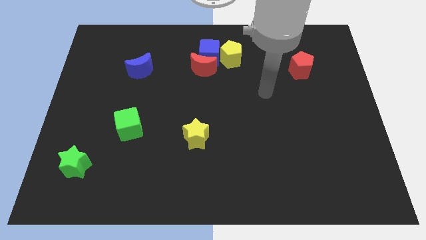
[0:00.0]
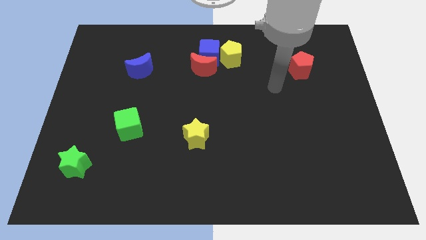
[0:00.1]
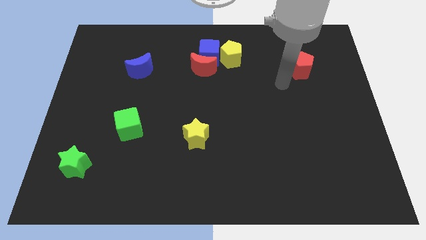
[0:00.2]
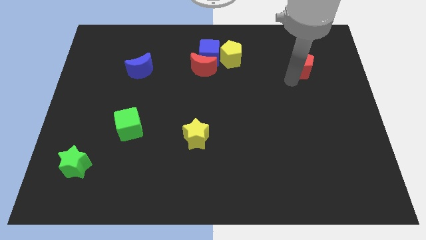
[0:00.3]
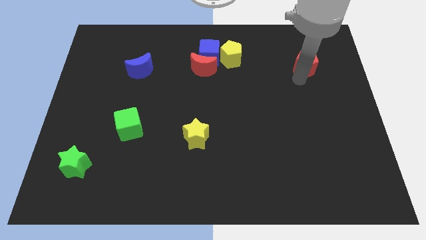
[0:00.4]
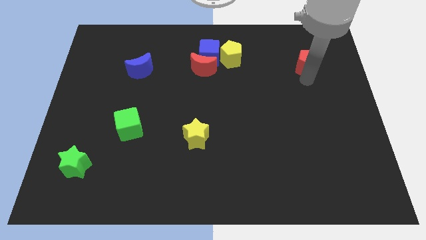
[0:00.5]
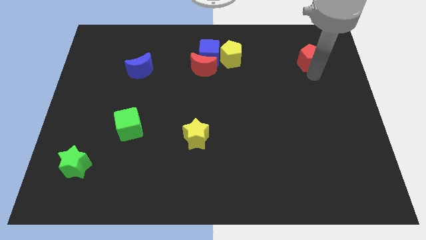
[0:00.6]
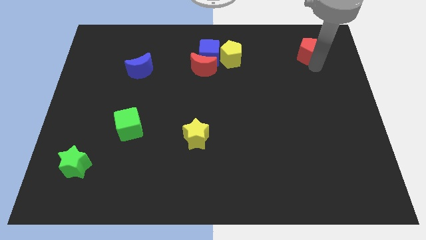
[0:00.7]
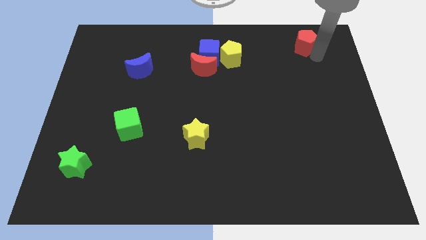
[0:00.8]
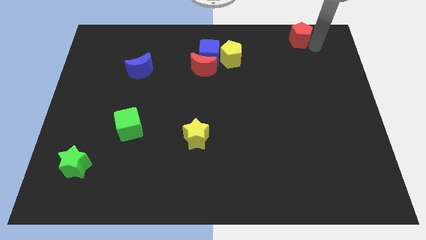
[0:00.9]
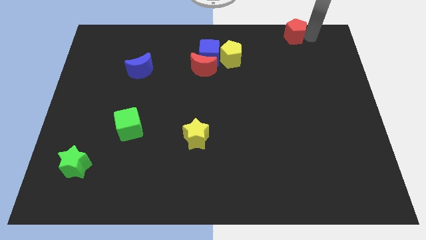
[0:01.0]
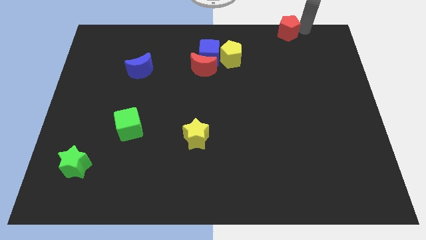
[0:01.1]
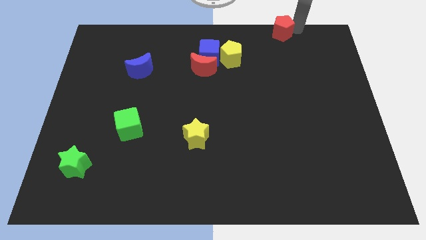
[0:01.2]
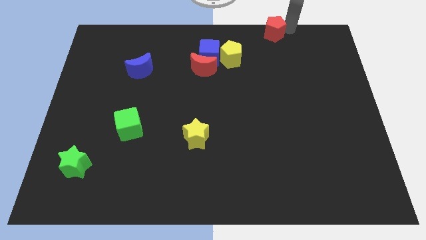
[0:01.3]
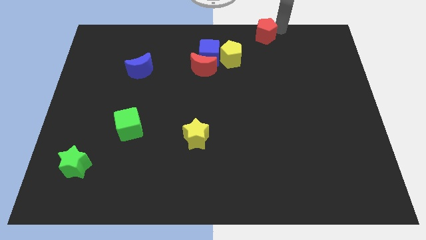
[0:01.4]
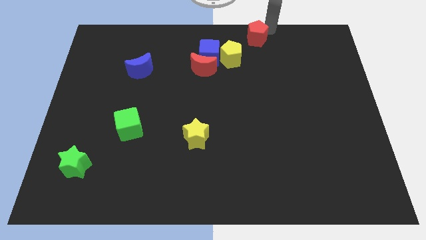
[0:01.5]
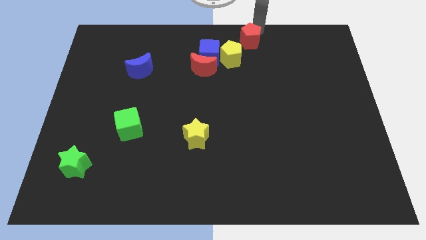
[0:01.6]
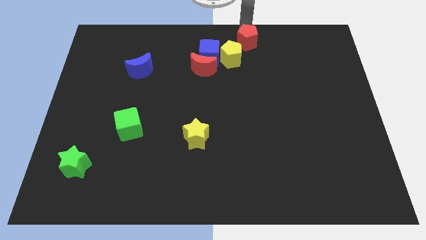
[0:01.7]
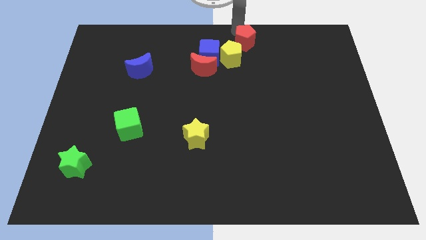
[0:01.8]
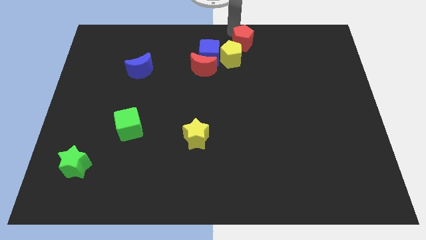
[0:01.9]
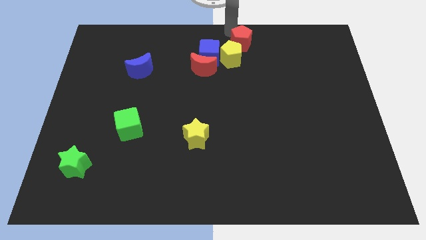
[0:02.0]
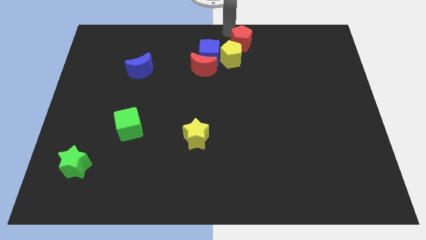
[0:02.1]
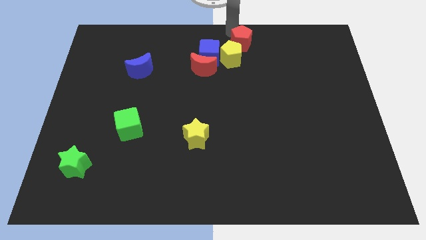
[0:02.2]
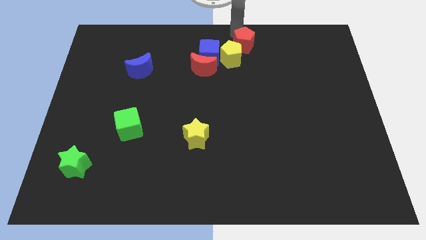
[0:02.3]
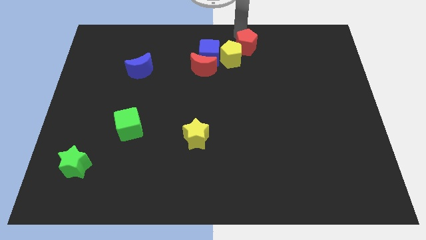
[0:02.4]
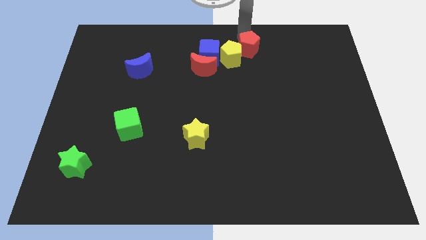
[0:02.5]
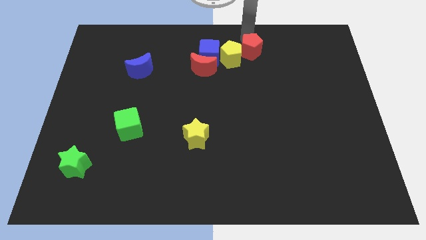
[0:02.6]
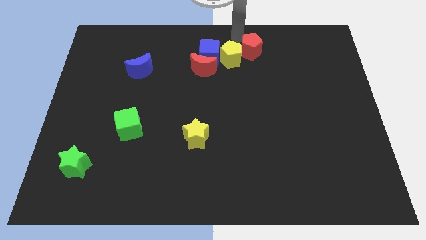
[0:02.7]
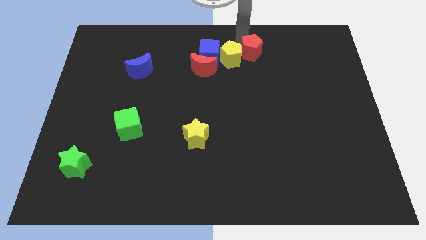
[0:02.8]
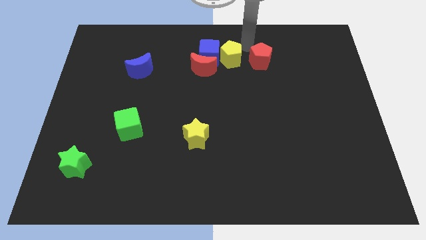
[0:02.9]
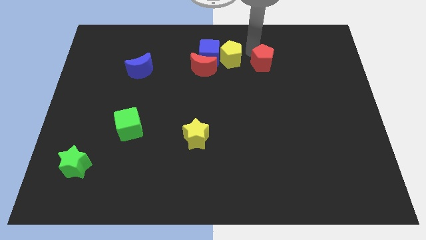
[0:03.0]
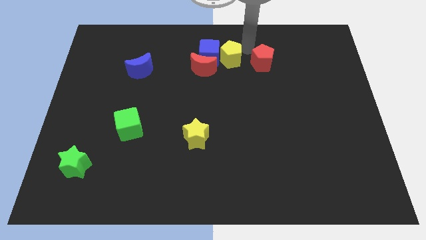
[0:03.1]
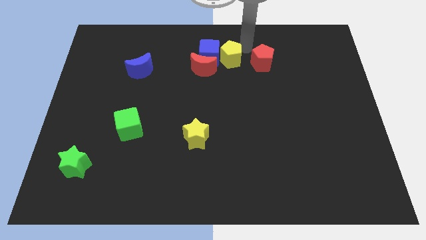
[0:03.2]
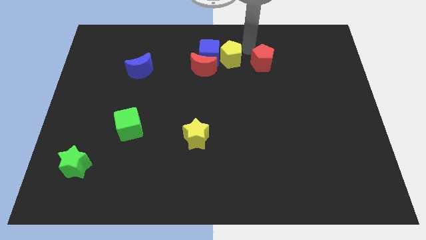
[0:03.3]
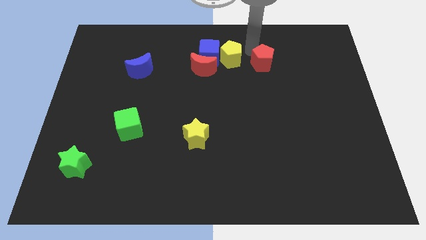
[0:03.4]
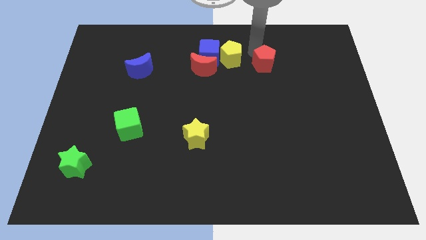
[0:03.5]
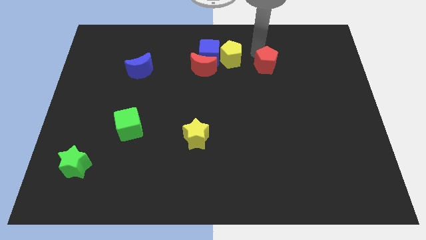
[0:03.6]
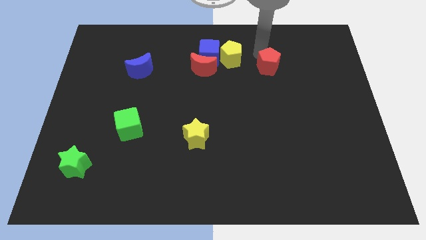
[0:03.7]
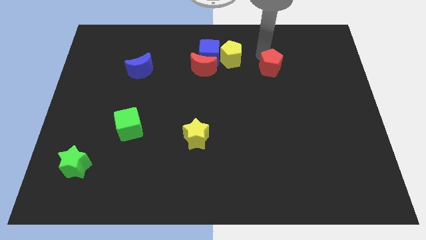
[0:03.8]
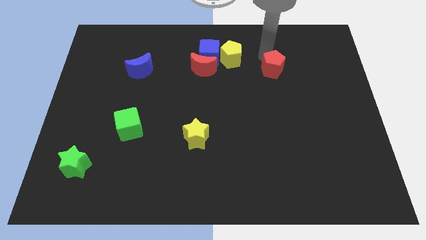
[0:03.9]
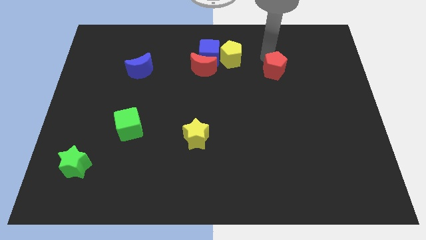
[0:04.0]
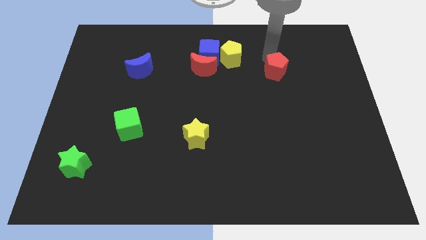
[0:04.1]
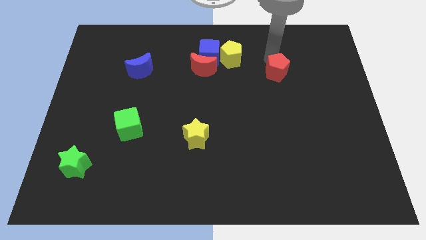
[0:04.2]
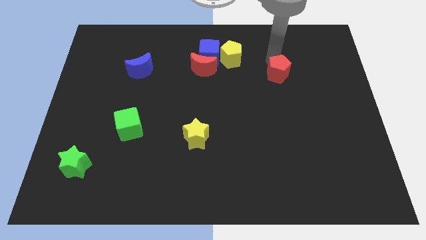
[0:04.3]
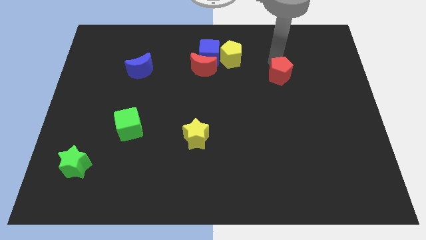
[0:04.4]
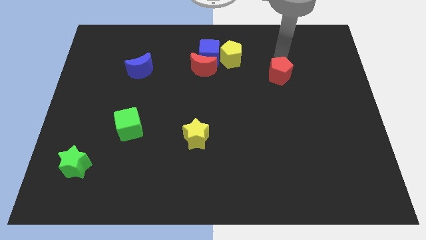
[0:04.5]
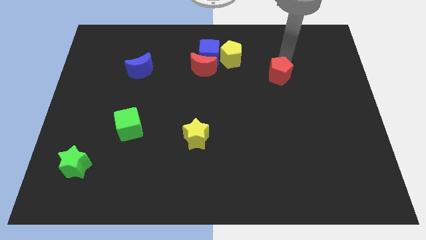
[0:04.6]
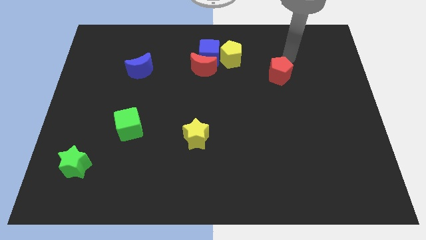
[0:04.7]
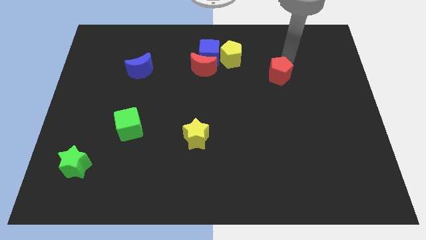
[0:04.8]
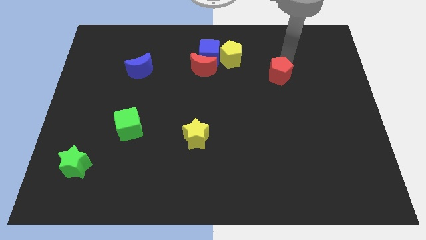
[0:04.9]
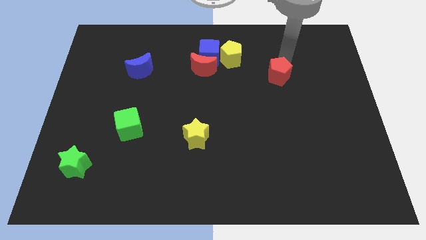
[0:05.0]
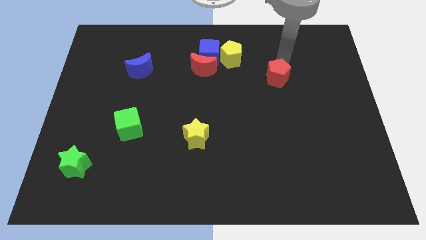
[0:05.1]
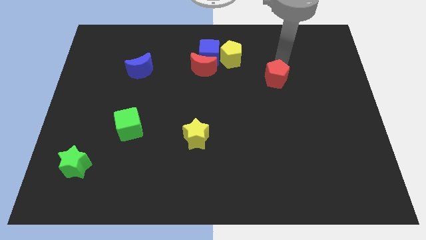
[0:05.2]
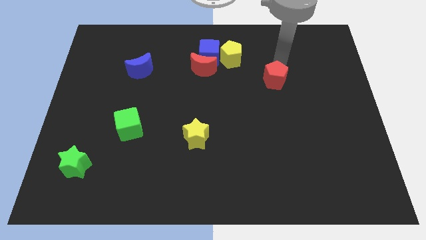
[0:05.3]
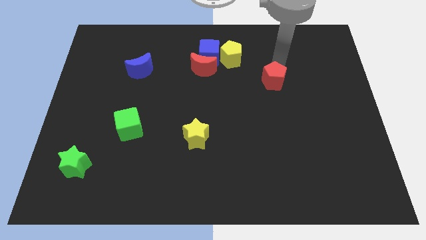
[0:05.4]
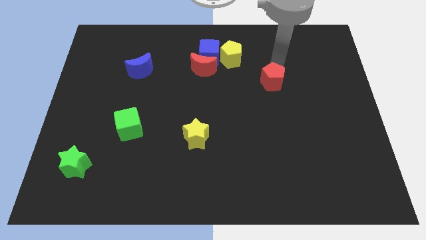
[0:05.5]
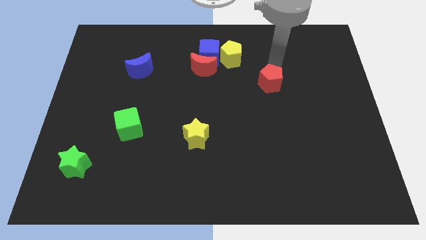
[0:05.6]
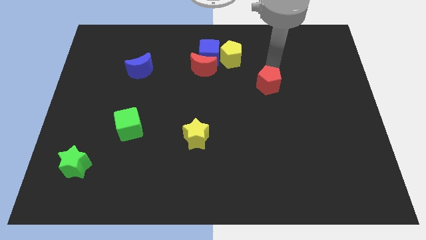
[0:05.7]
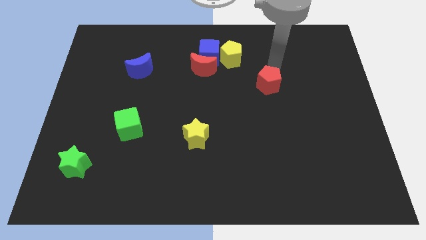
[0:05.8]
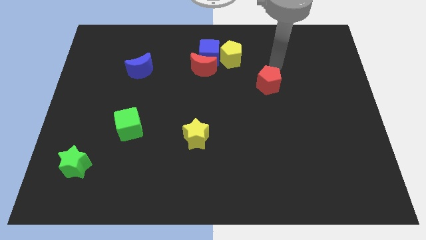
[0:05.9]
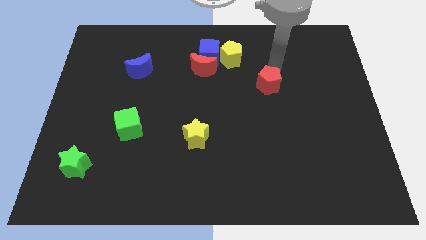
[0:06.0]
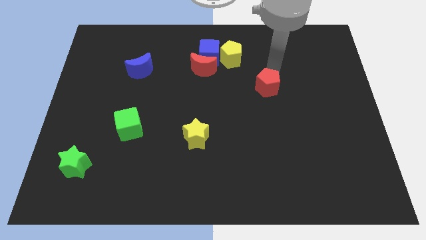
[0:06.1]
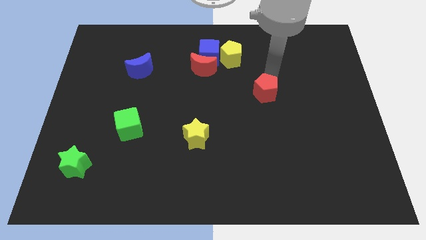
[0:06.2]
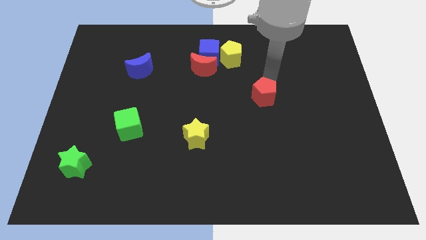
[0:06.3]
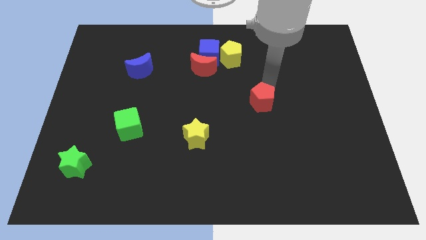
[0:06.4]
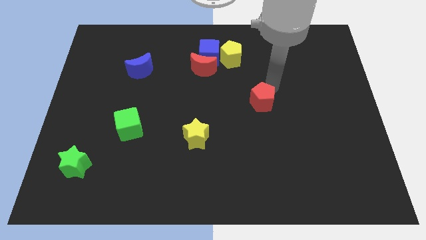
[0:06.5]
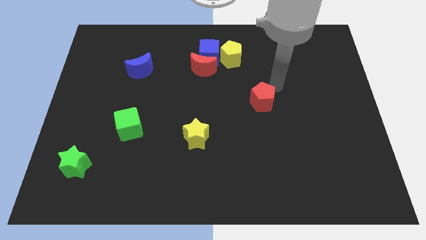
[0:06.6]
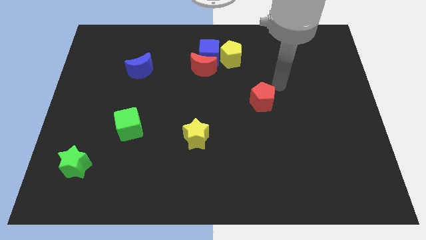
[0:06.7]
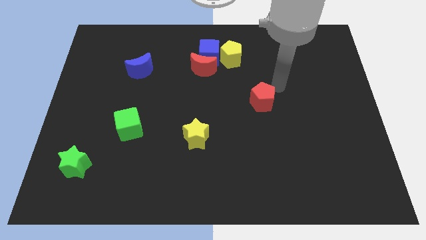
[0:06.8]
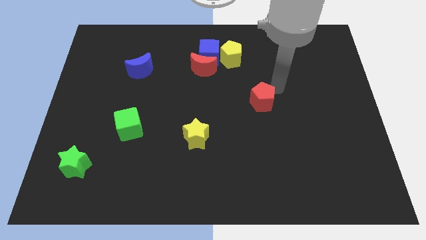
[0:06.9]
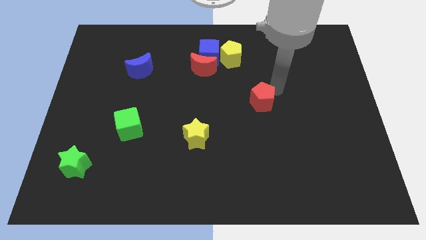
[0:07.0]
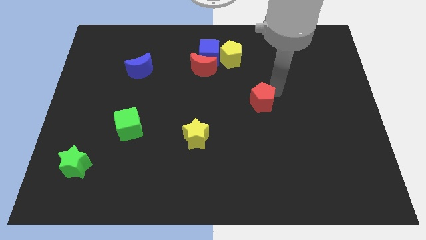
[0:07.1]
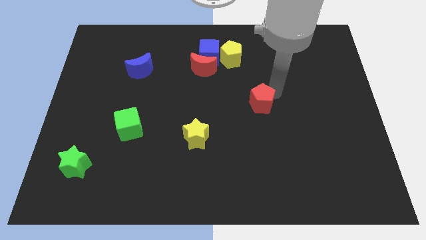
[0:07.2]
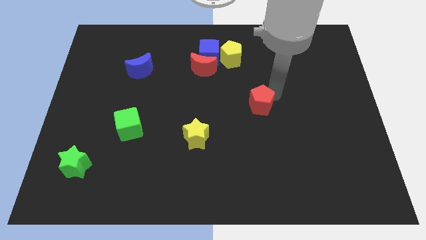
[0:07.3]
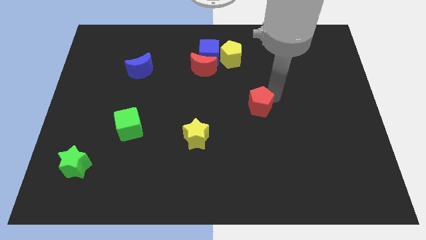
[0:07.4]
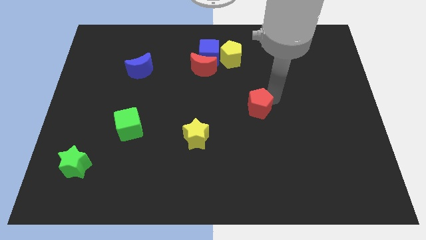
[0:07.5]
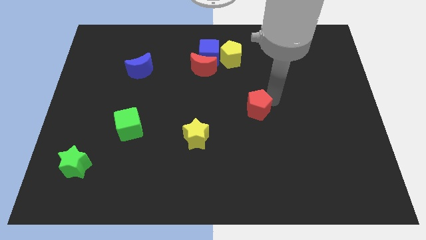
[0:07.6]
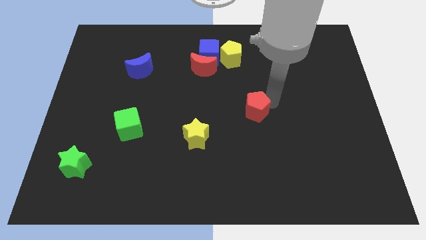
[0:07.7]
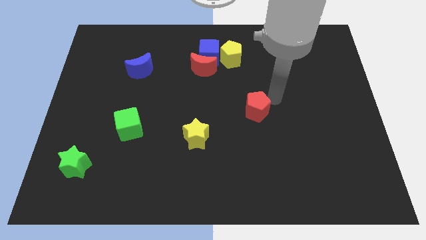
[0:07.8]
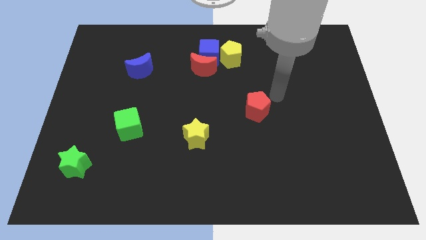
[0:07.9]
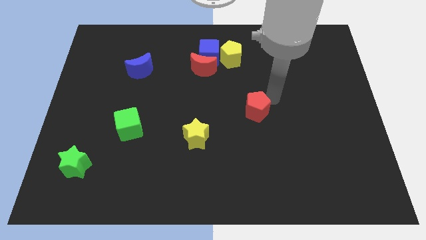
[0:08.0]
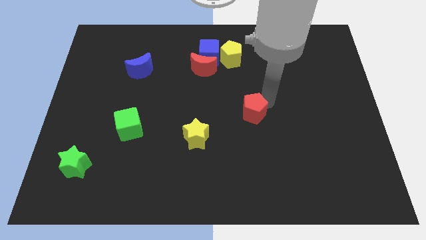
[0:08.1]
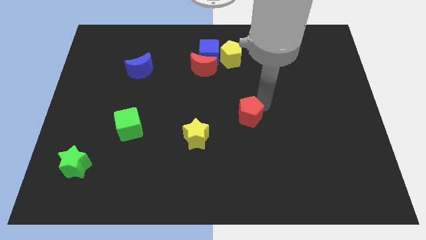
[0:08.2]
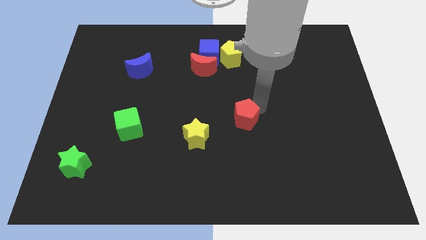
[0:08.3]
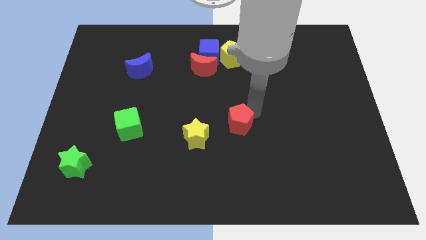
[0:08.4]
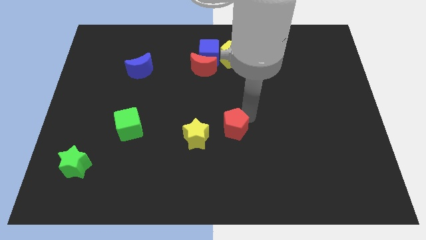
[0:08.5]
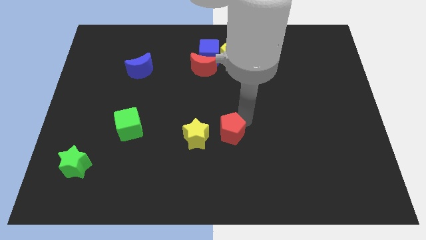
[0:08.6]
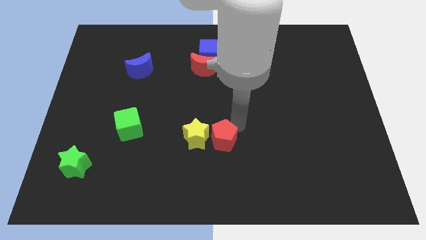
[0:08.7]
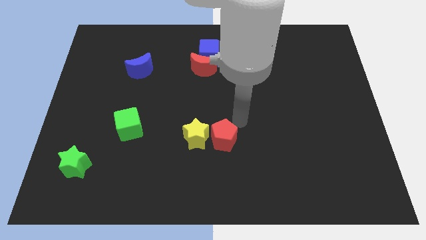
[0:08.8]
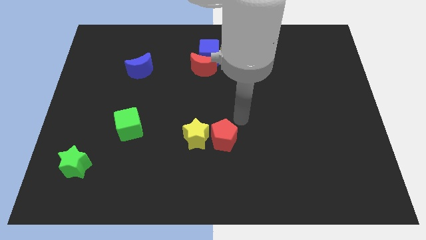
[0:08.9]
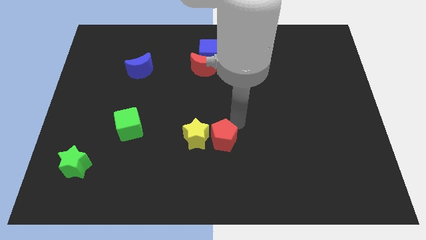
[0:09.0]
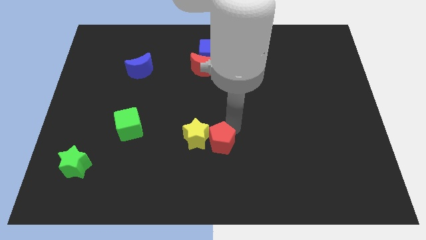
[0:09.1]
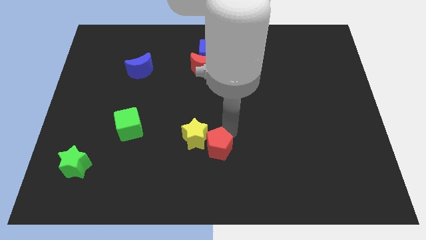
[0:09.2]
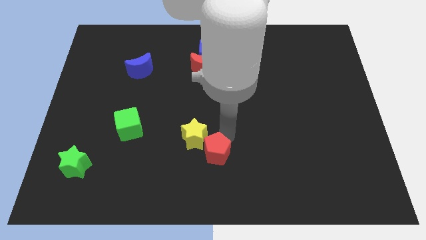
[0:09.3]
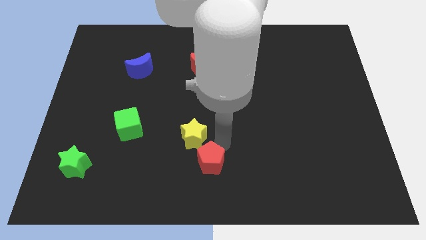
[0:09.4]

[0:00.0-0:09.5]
put the red pentagon to the bottom side of the yellow star
